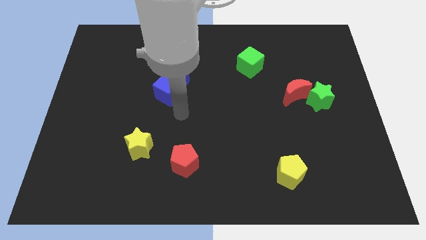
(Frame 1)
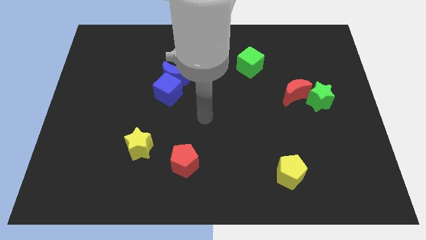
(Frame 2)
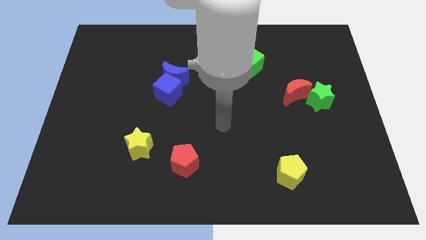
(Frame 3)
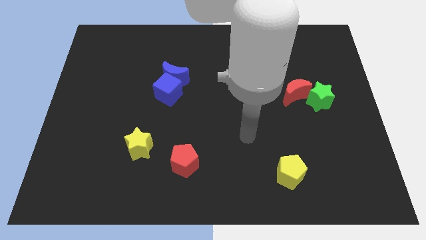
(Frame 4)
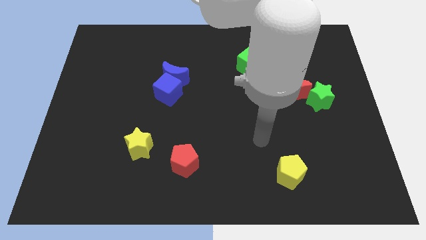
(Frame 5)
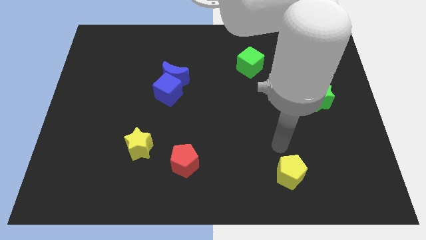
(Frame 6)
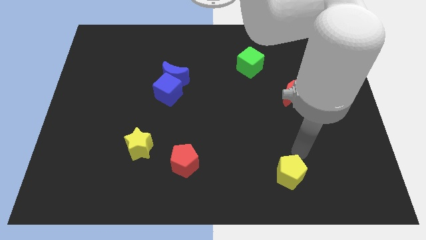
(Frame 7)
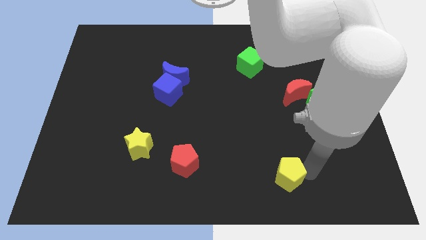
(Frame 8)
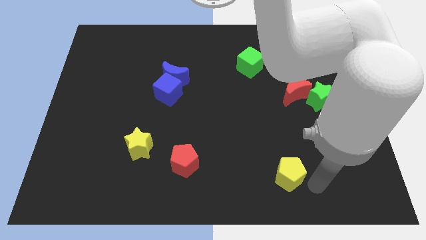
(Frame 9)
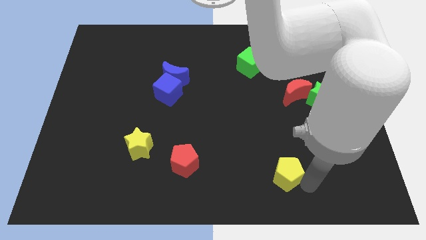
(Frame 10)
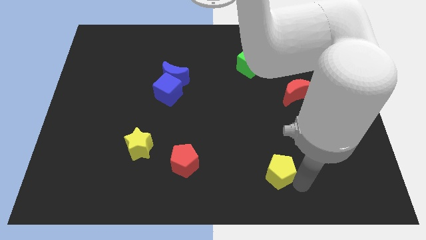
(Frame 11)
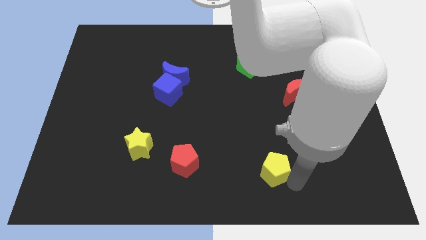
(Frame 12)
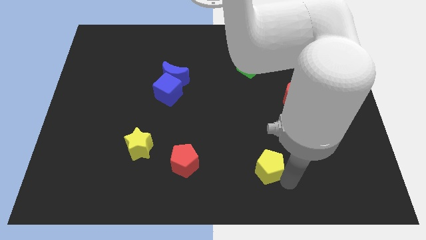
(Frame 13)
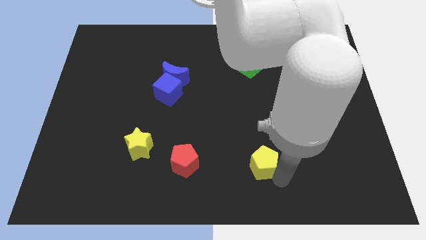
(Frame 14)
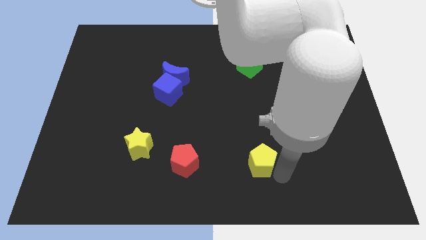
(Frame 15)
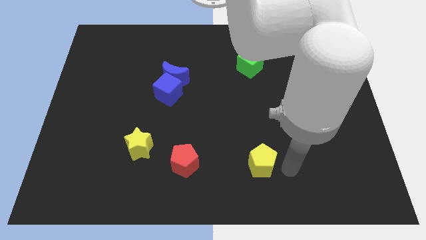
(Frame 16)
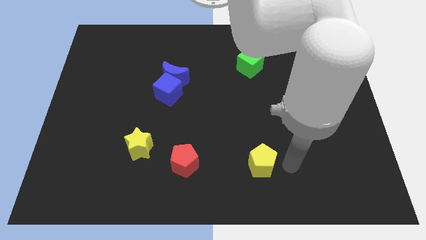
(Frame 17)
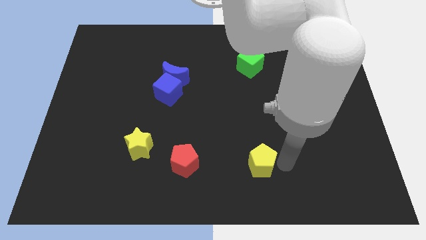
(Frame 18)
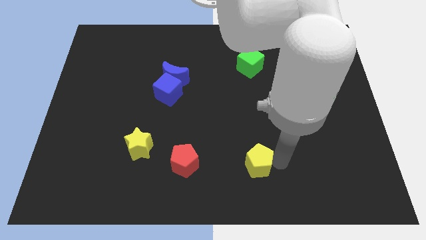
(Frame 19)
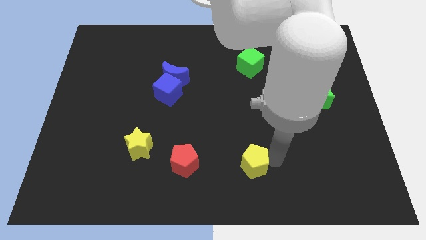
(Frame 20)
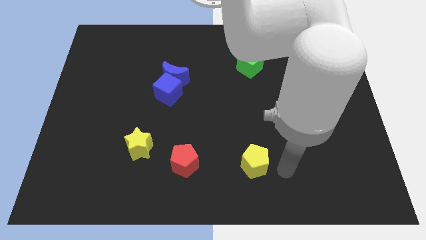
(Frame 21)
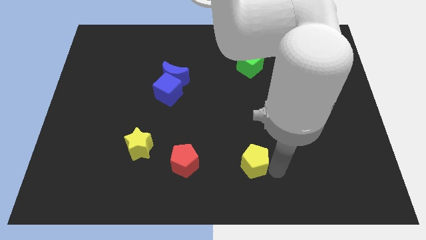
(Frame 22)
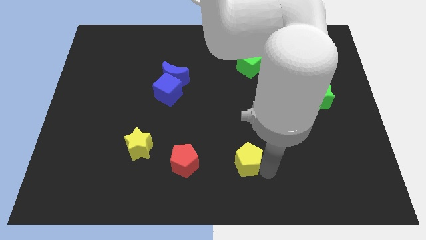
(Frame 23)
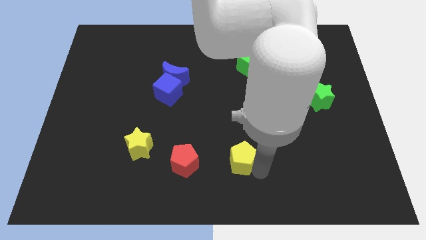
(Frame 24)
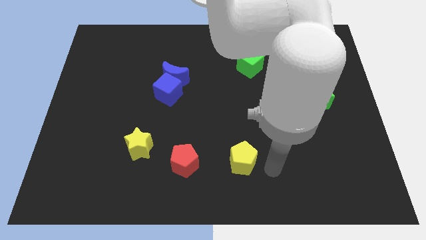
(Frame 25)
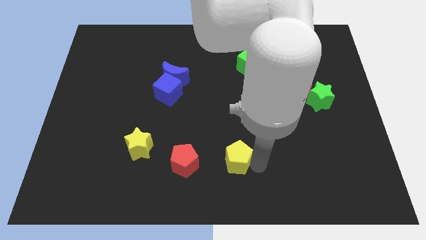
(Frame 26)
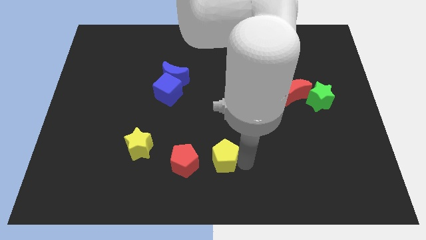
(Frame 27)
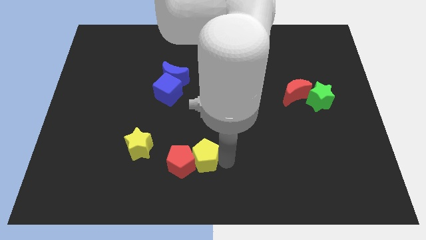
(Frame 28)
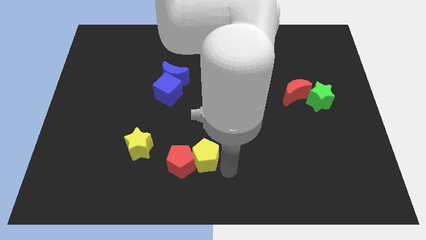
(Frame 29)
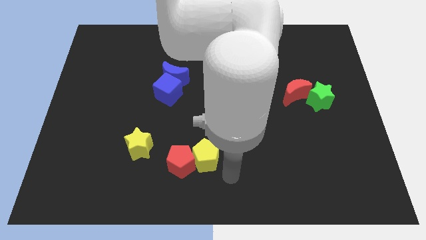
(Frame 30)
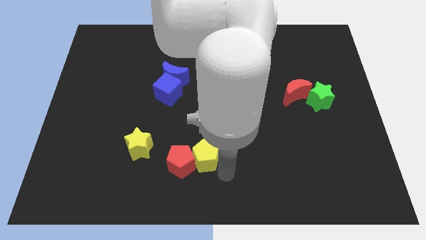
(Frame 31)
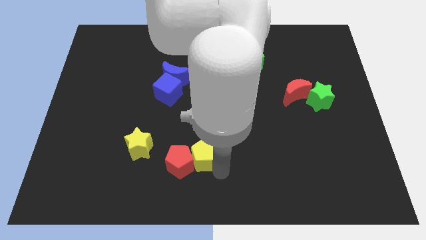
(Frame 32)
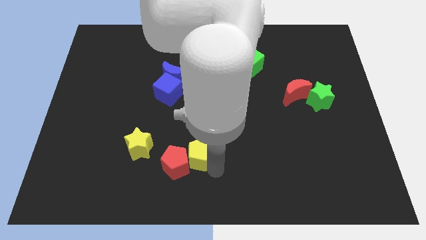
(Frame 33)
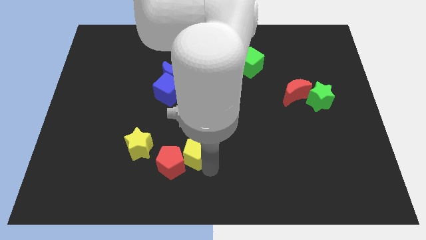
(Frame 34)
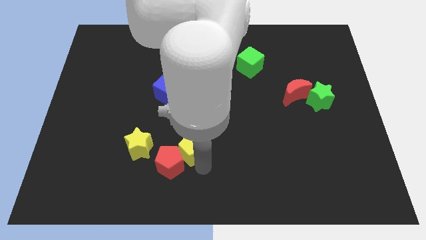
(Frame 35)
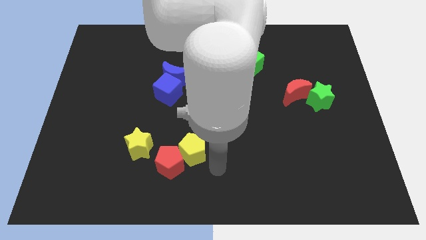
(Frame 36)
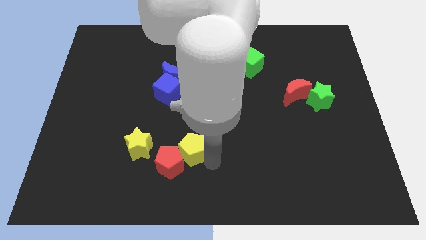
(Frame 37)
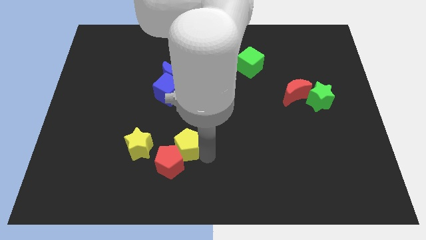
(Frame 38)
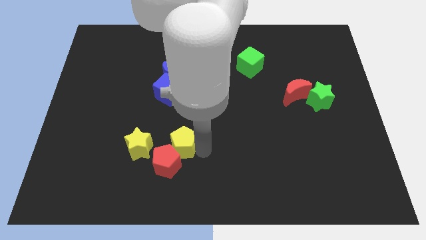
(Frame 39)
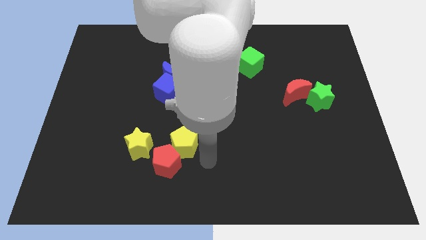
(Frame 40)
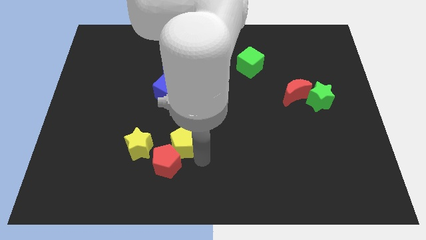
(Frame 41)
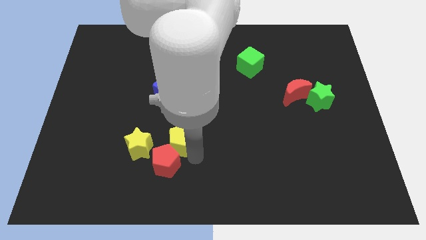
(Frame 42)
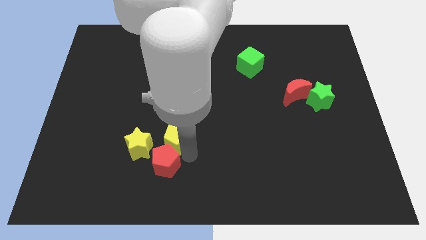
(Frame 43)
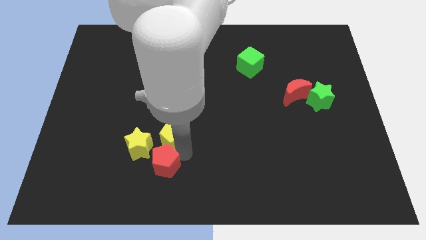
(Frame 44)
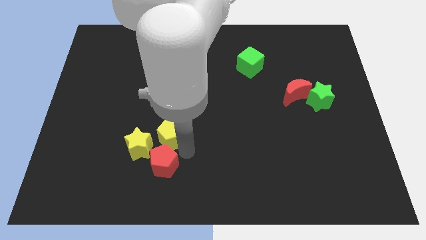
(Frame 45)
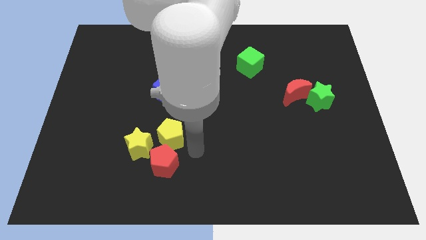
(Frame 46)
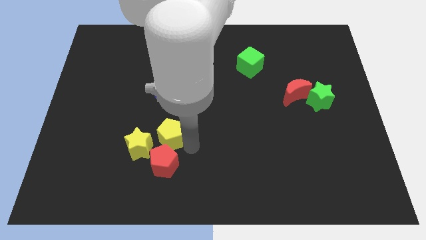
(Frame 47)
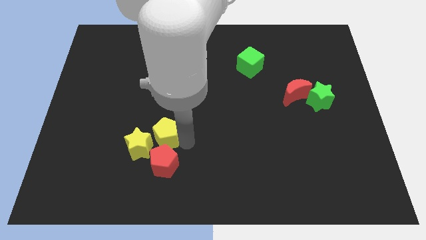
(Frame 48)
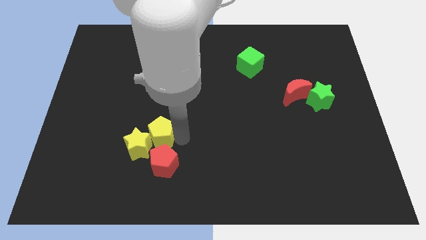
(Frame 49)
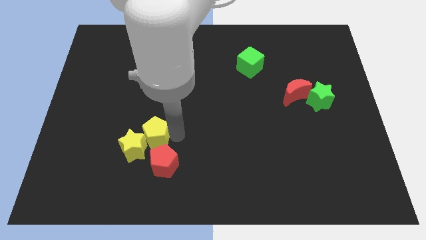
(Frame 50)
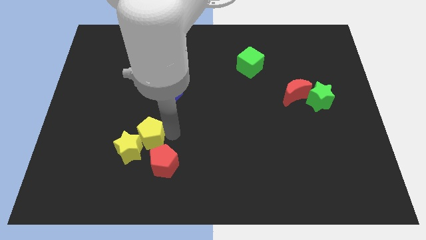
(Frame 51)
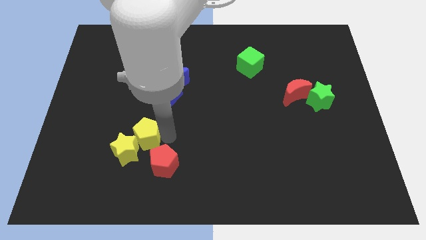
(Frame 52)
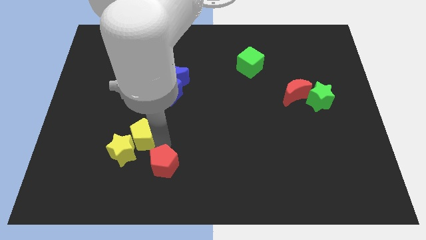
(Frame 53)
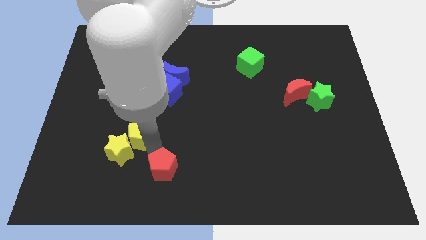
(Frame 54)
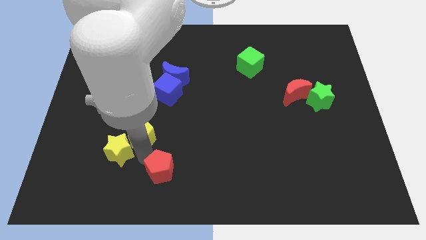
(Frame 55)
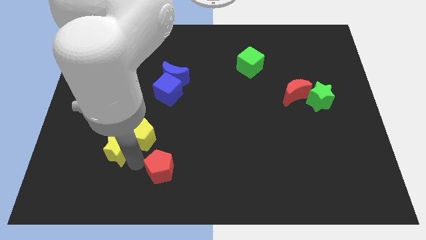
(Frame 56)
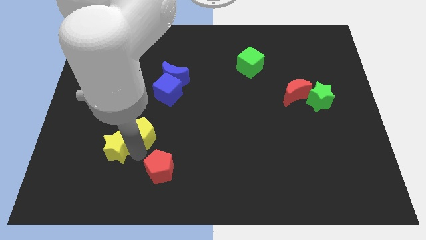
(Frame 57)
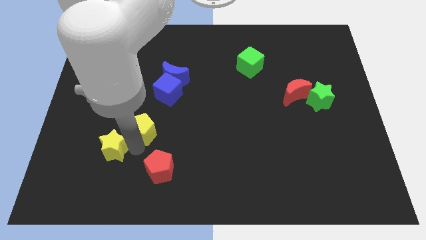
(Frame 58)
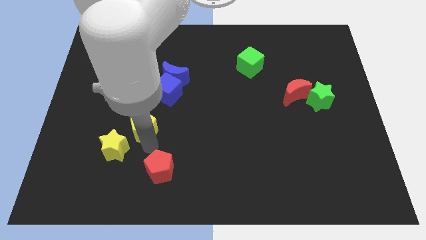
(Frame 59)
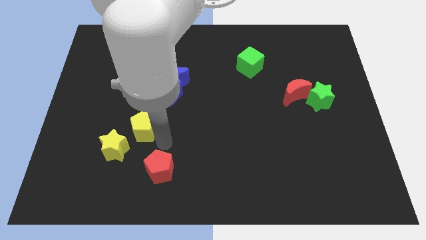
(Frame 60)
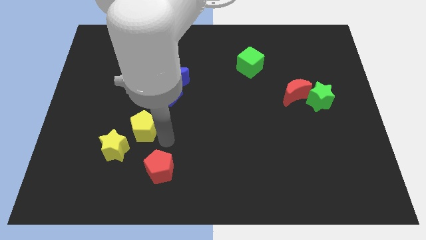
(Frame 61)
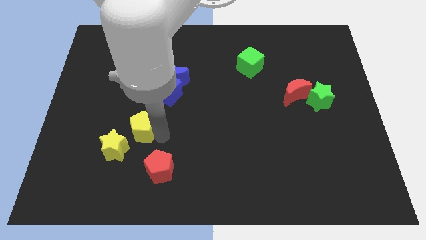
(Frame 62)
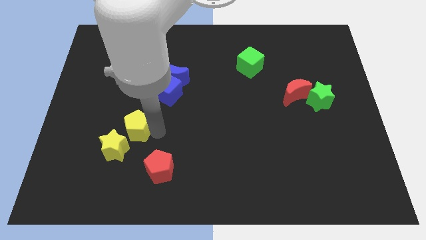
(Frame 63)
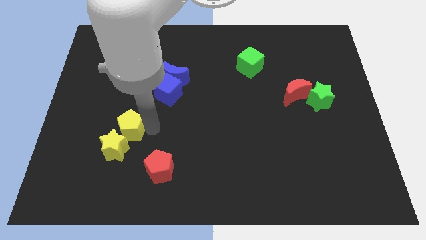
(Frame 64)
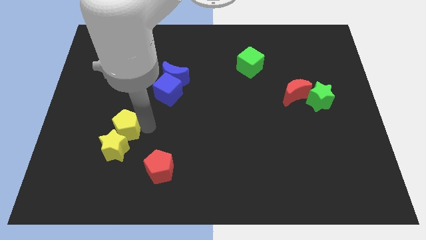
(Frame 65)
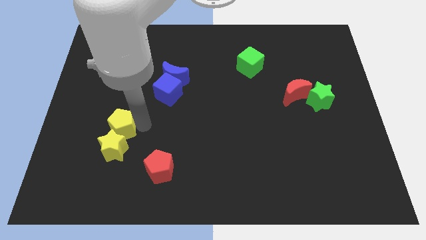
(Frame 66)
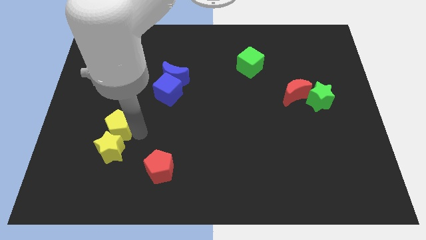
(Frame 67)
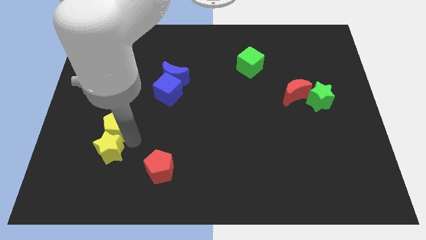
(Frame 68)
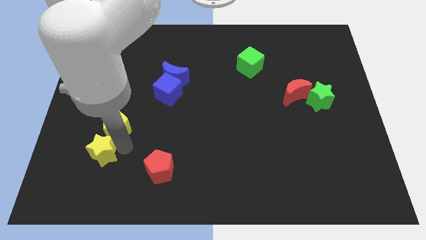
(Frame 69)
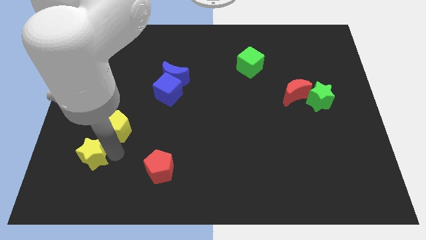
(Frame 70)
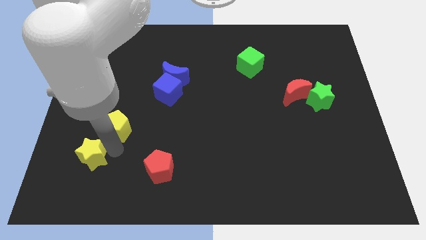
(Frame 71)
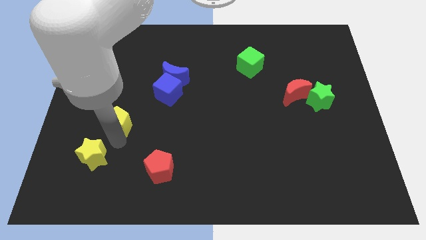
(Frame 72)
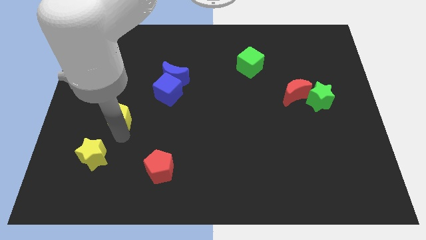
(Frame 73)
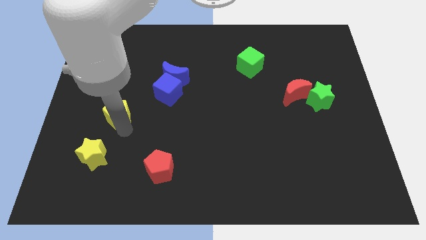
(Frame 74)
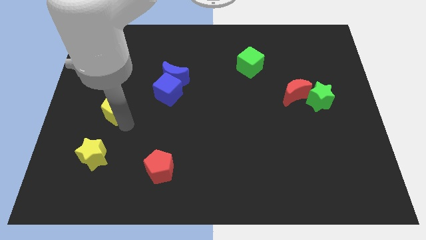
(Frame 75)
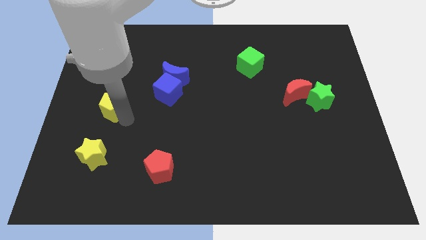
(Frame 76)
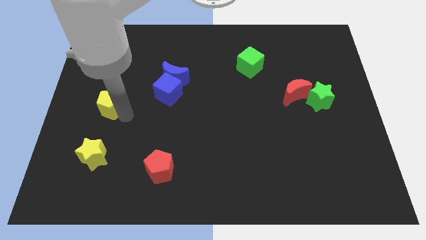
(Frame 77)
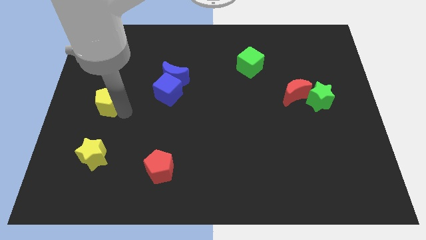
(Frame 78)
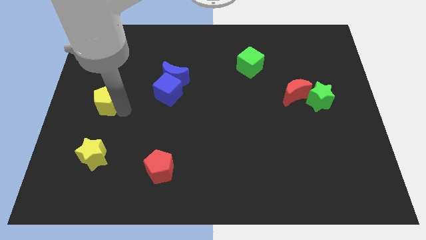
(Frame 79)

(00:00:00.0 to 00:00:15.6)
move the yellow pentagon to the left side of the board
